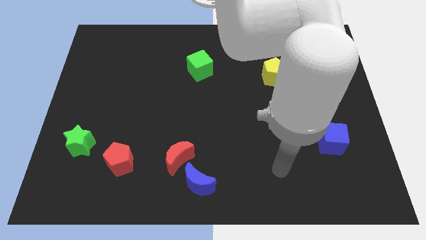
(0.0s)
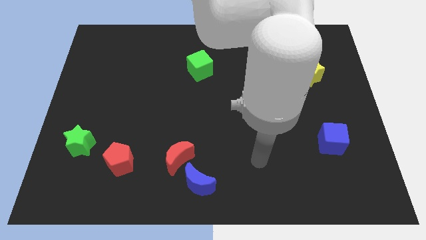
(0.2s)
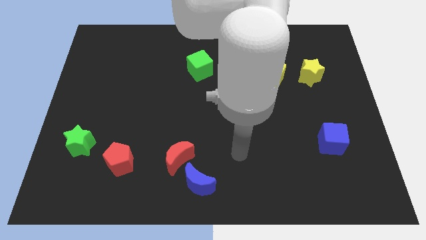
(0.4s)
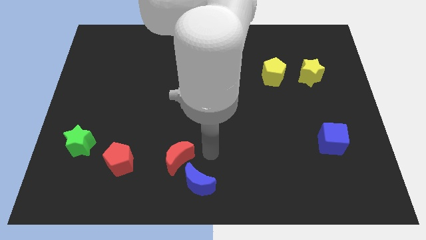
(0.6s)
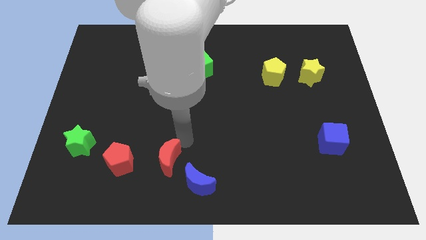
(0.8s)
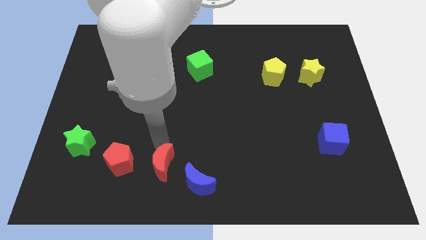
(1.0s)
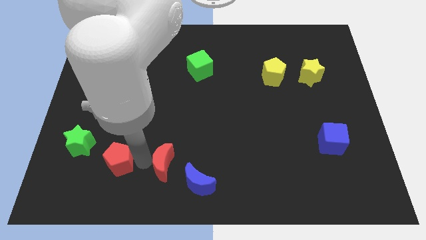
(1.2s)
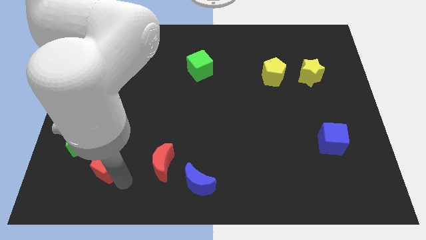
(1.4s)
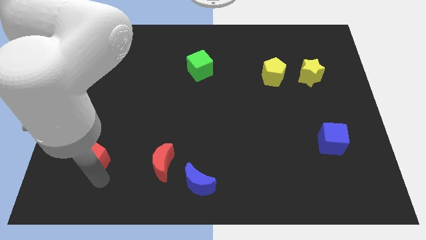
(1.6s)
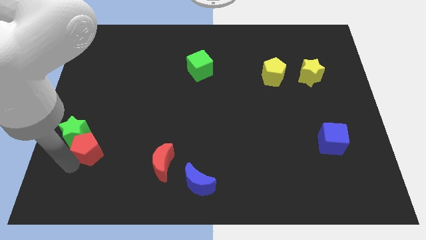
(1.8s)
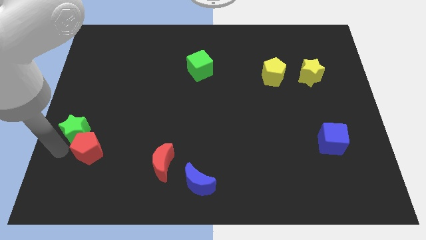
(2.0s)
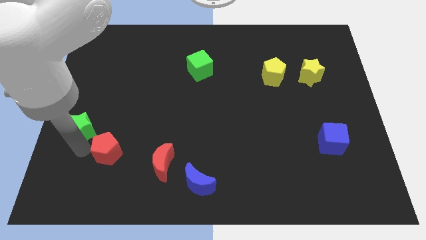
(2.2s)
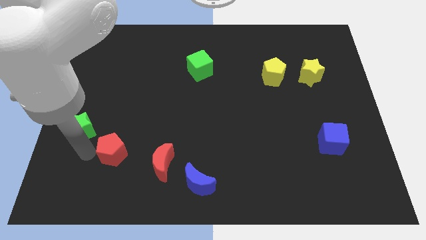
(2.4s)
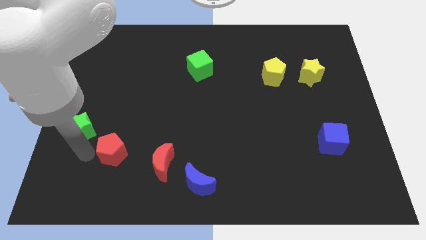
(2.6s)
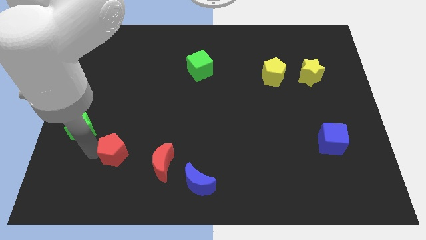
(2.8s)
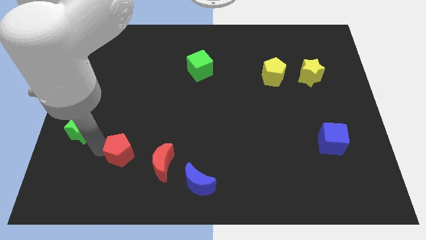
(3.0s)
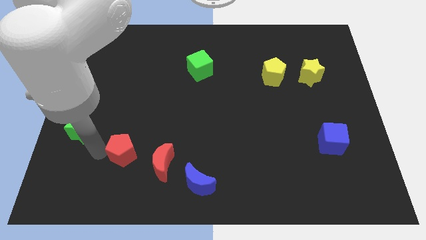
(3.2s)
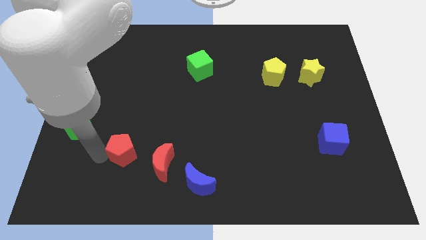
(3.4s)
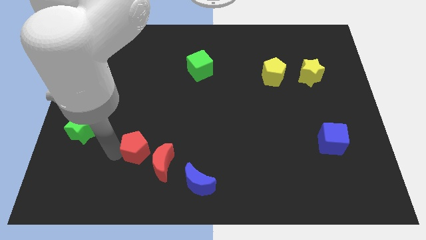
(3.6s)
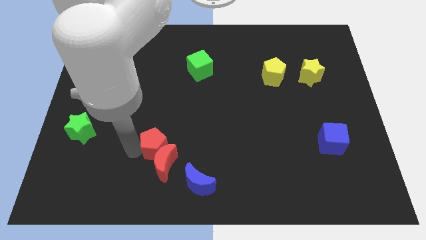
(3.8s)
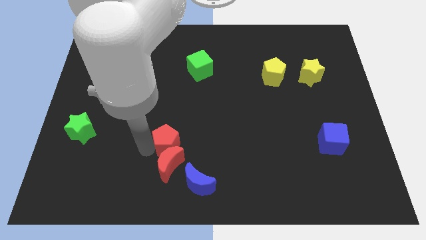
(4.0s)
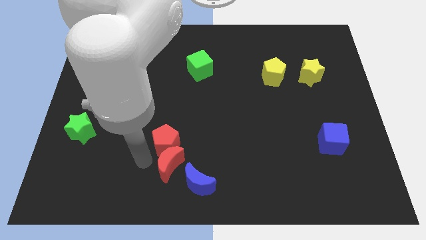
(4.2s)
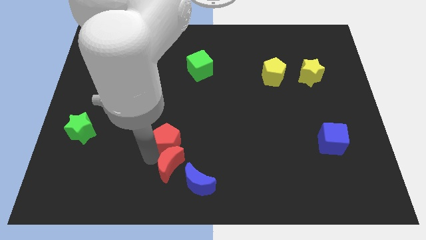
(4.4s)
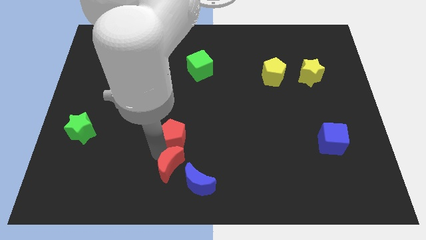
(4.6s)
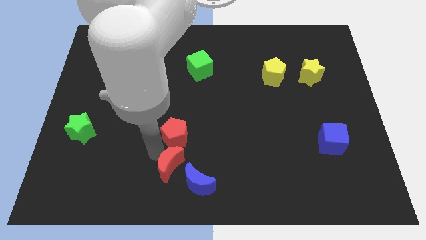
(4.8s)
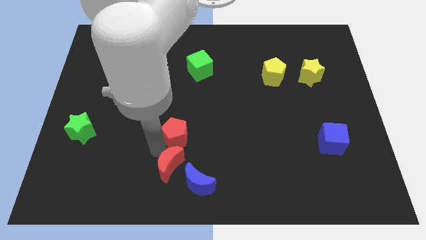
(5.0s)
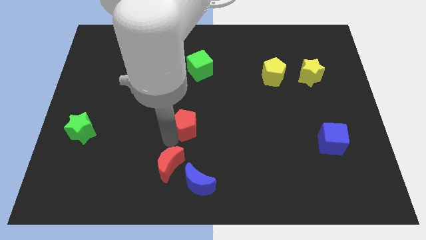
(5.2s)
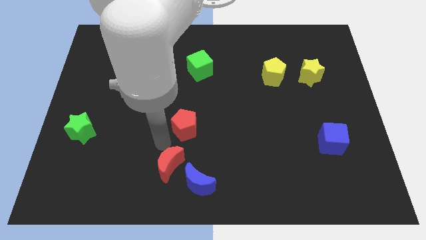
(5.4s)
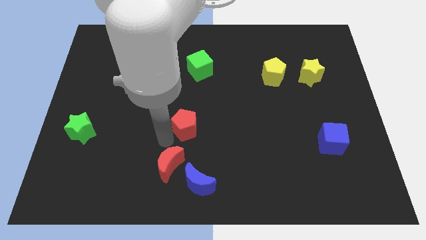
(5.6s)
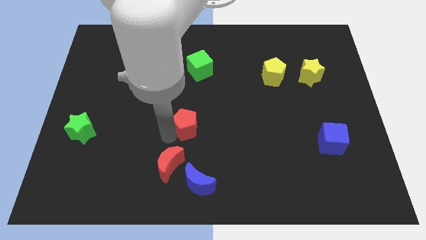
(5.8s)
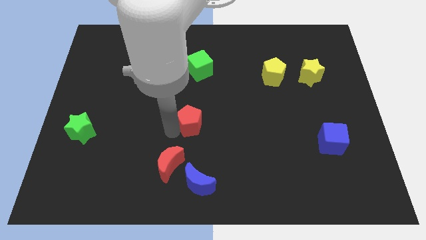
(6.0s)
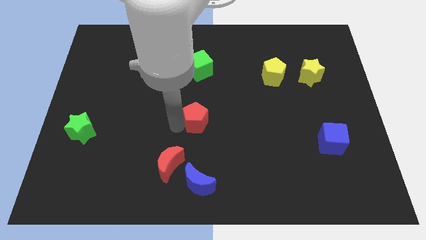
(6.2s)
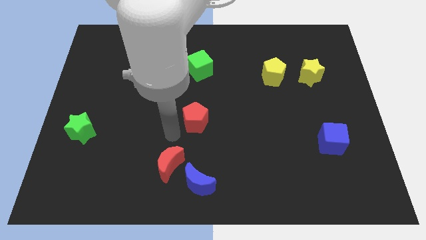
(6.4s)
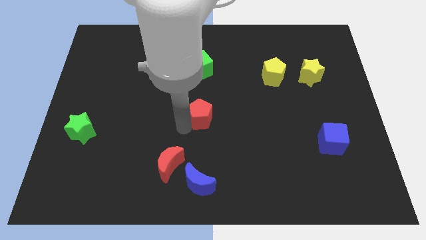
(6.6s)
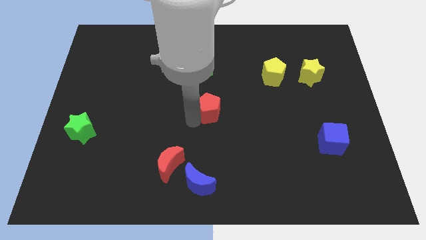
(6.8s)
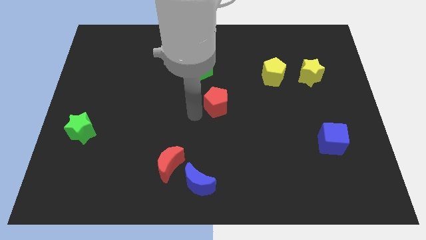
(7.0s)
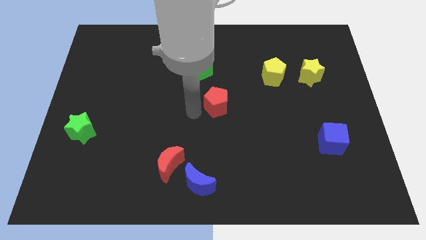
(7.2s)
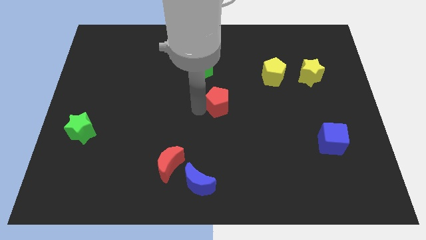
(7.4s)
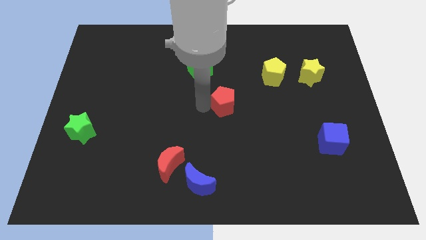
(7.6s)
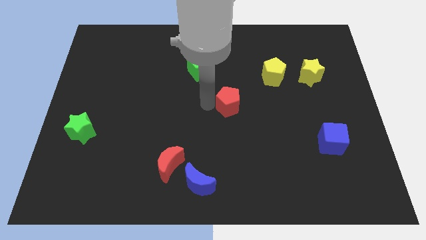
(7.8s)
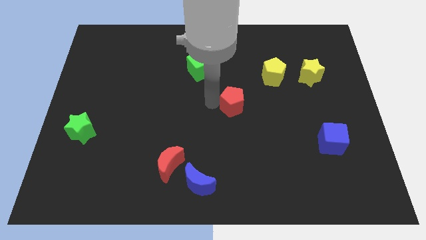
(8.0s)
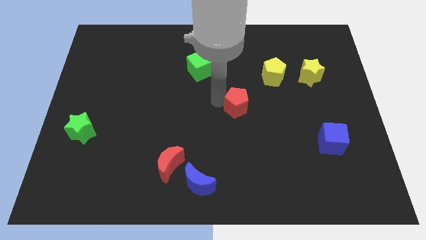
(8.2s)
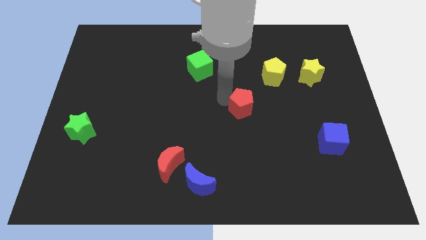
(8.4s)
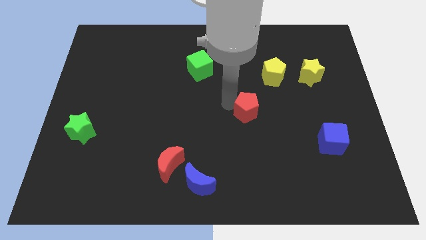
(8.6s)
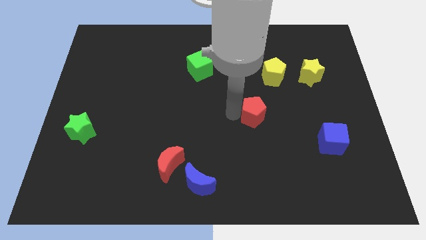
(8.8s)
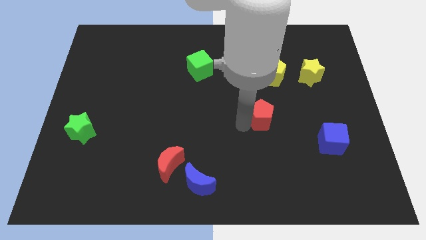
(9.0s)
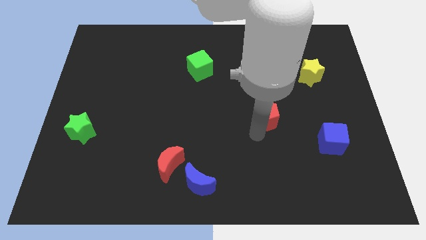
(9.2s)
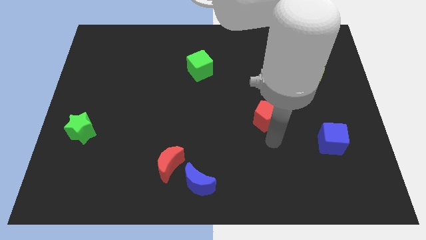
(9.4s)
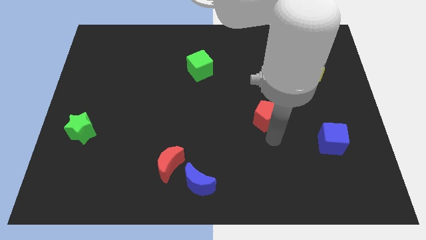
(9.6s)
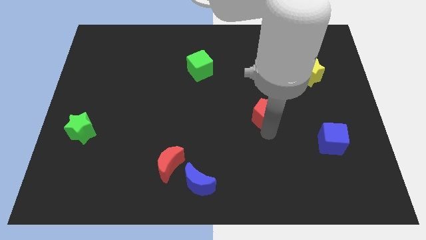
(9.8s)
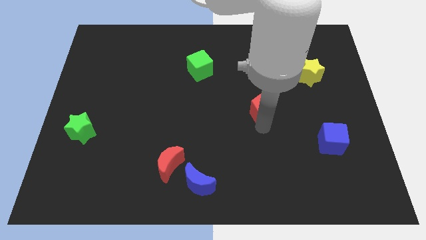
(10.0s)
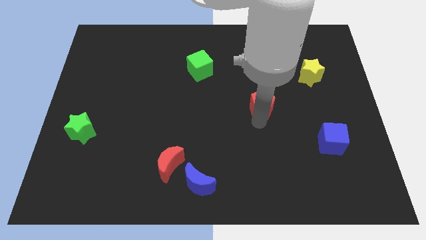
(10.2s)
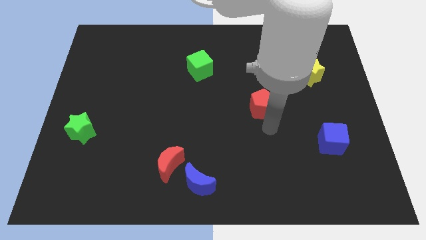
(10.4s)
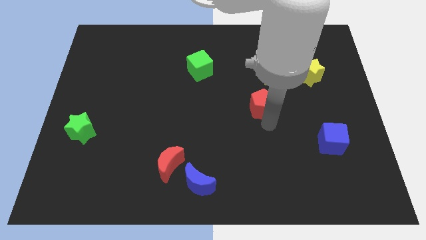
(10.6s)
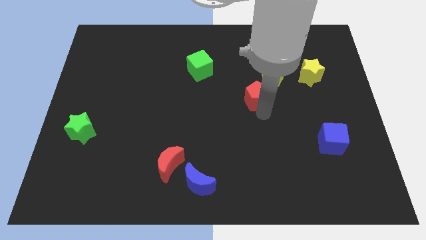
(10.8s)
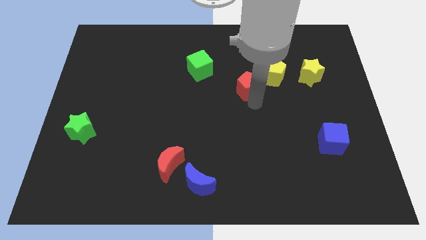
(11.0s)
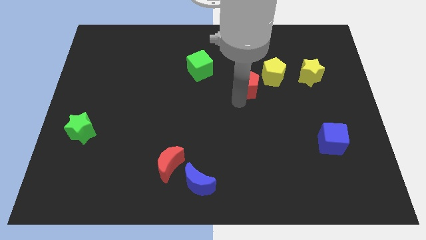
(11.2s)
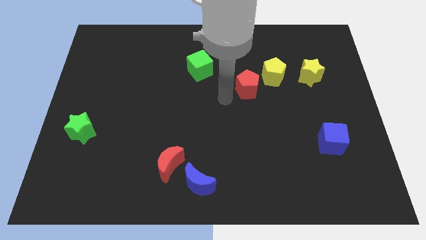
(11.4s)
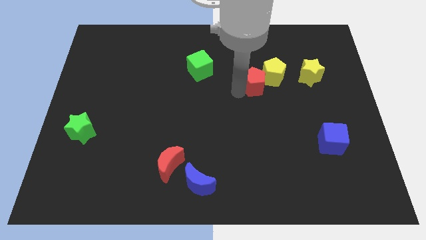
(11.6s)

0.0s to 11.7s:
push the red pentagon towards the yellow pentagon
